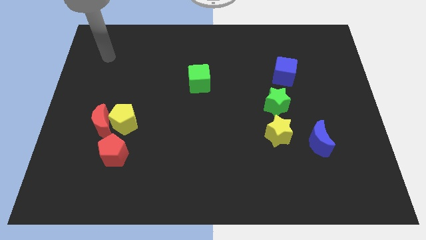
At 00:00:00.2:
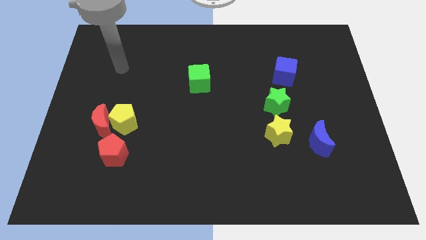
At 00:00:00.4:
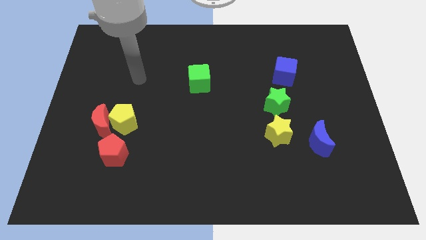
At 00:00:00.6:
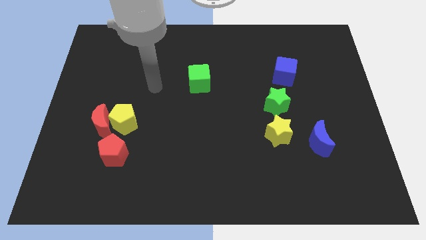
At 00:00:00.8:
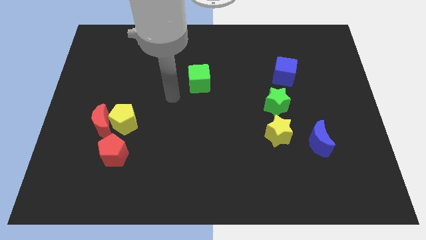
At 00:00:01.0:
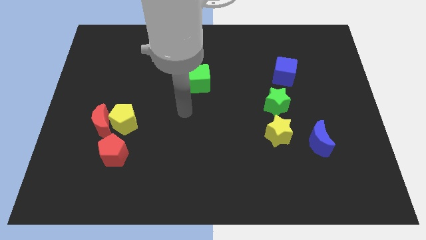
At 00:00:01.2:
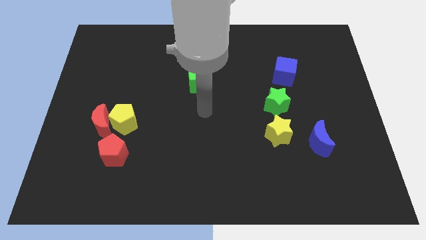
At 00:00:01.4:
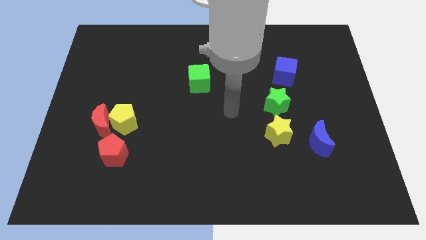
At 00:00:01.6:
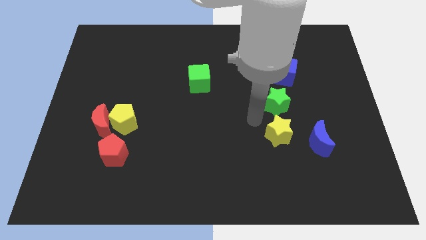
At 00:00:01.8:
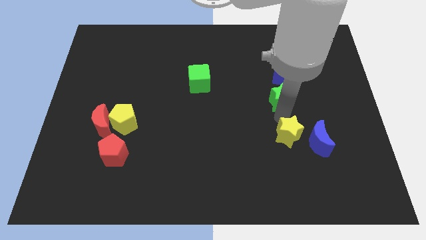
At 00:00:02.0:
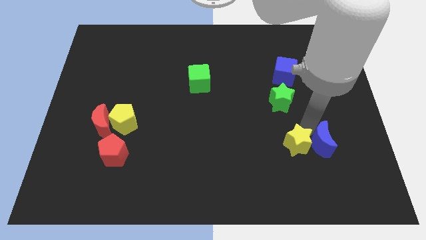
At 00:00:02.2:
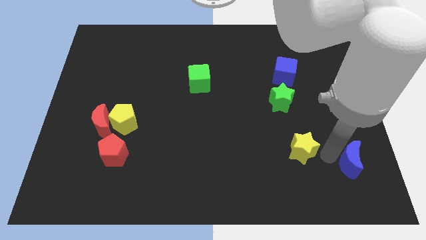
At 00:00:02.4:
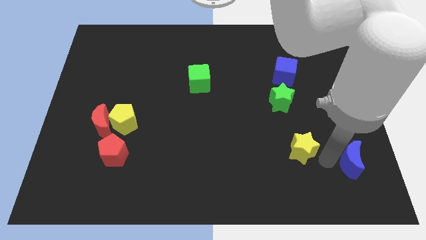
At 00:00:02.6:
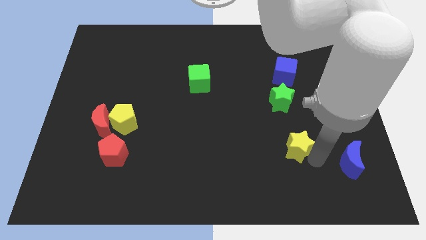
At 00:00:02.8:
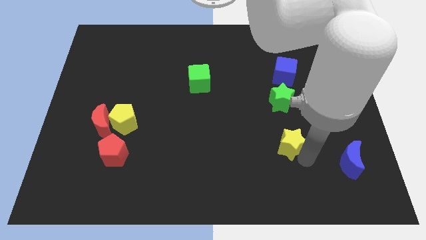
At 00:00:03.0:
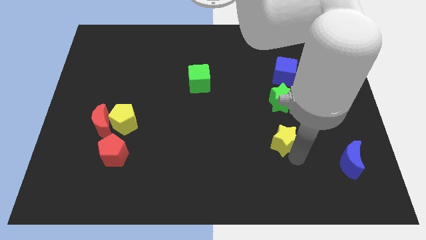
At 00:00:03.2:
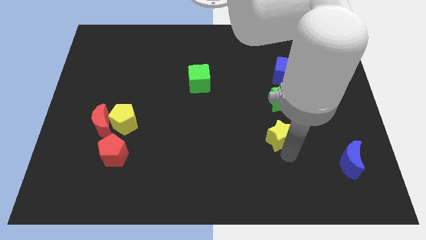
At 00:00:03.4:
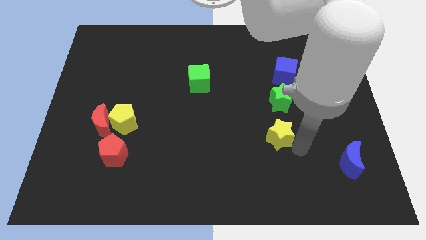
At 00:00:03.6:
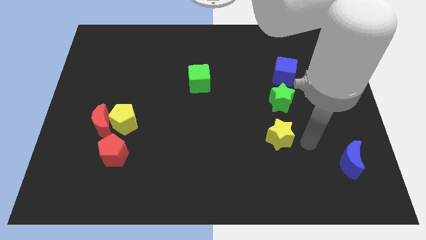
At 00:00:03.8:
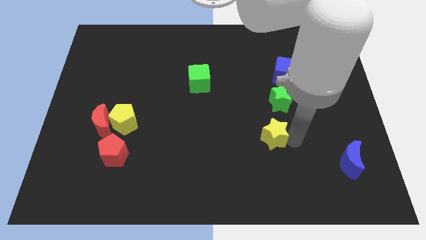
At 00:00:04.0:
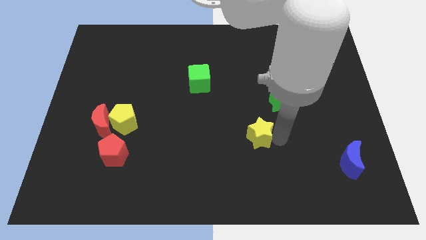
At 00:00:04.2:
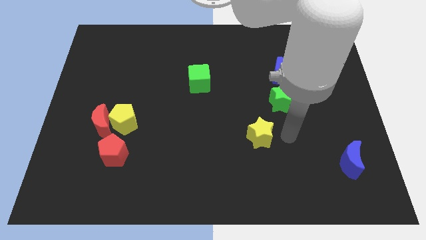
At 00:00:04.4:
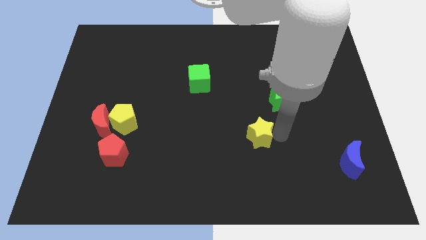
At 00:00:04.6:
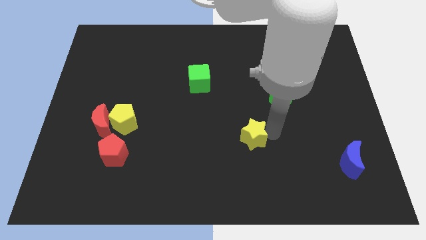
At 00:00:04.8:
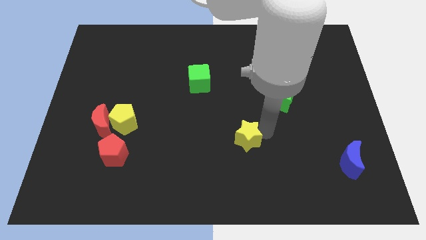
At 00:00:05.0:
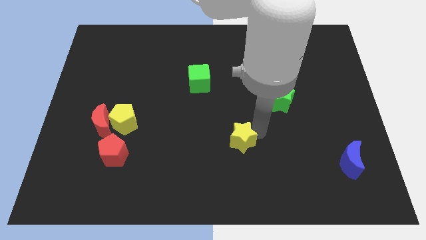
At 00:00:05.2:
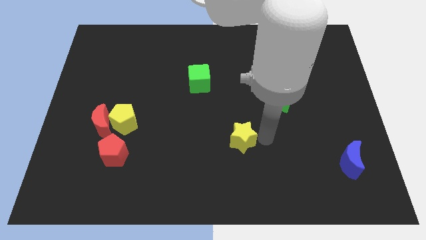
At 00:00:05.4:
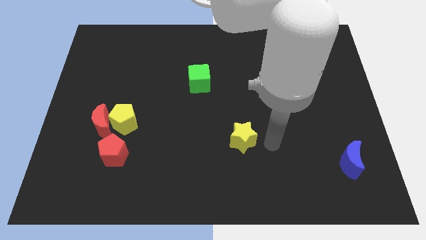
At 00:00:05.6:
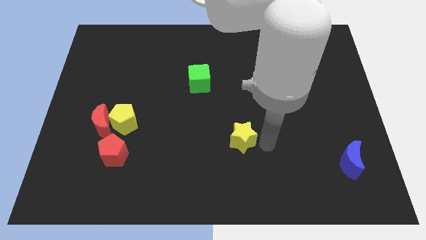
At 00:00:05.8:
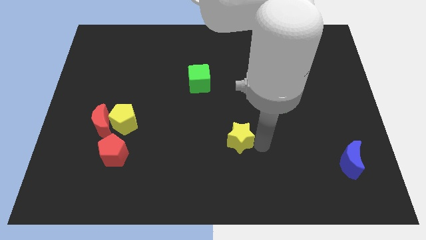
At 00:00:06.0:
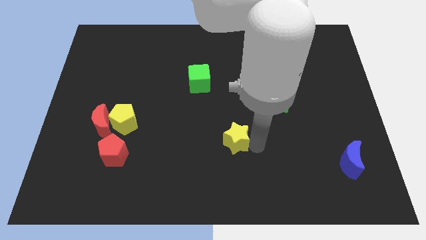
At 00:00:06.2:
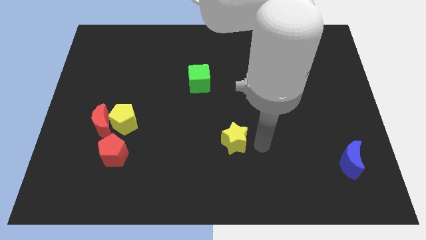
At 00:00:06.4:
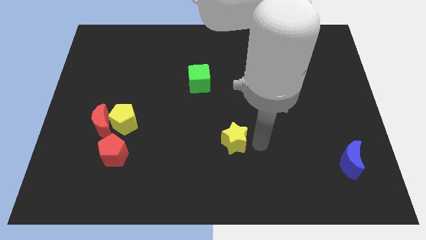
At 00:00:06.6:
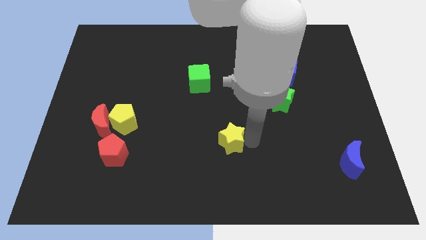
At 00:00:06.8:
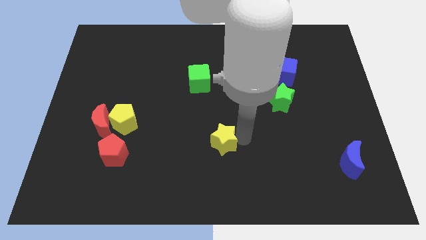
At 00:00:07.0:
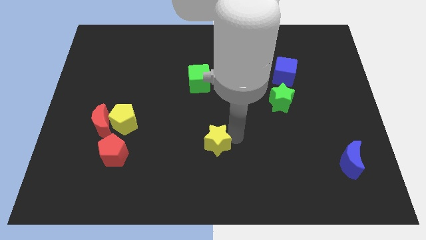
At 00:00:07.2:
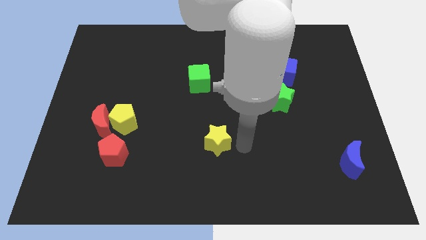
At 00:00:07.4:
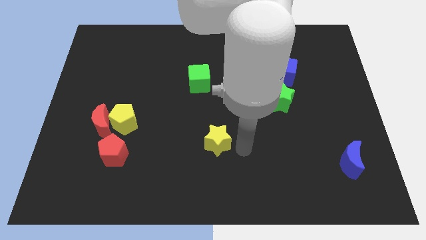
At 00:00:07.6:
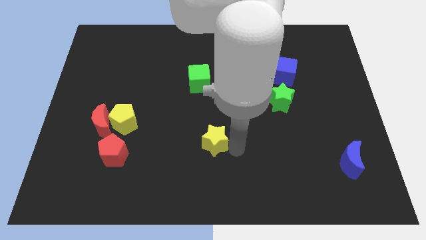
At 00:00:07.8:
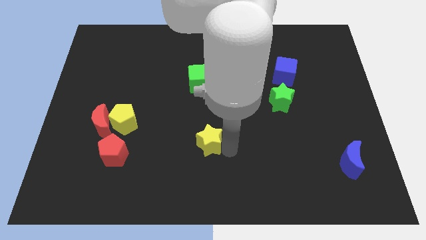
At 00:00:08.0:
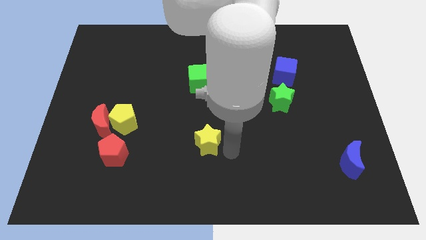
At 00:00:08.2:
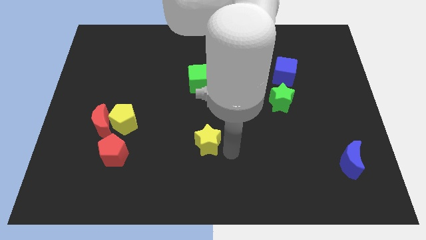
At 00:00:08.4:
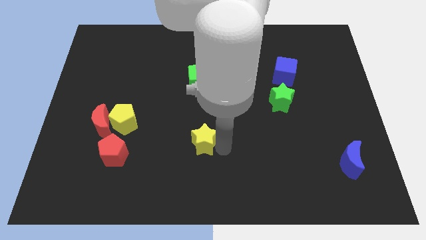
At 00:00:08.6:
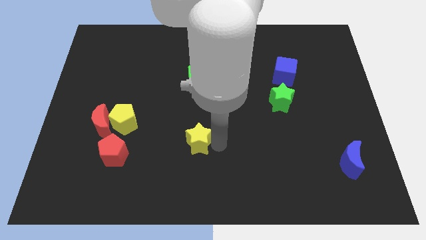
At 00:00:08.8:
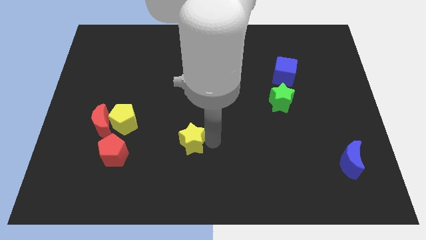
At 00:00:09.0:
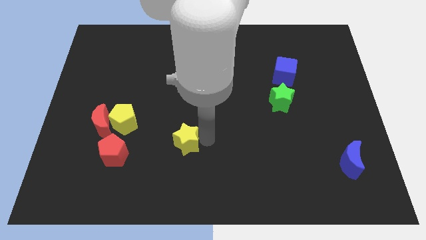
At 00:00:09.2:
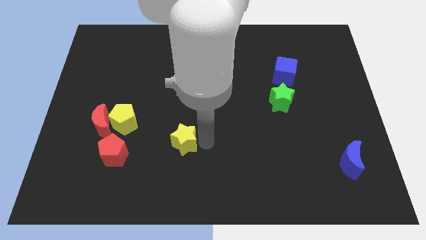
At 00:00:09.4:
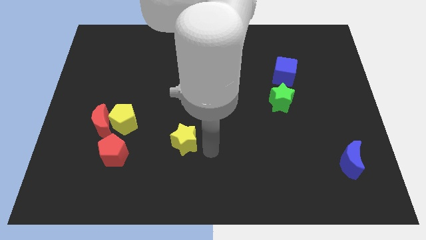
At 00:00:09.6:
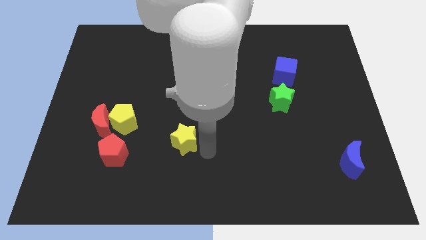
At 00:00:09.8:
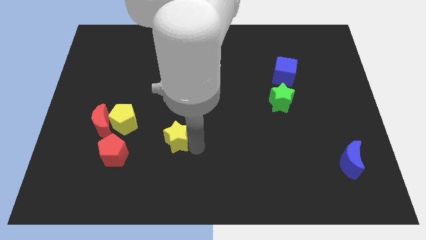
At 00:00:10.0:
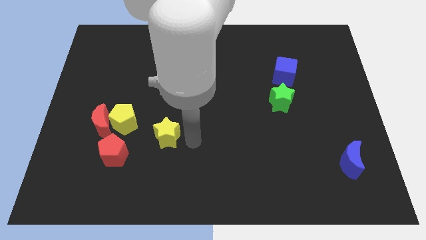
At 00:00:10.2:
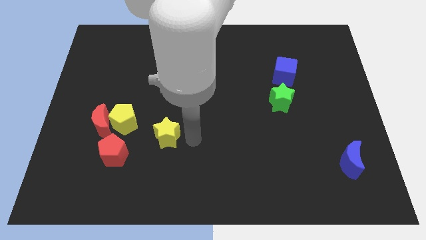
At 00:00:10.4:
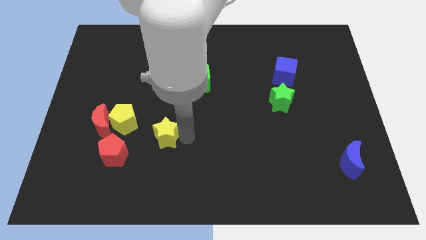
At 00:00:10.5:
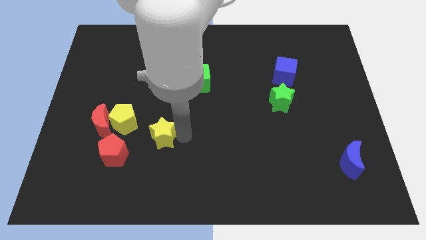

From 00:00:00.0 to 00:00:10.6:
put the yellow star to the top right of the red pentagon

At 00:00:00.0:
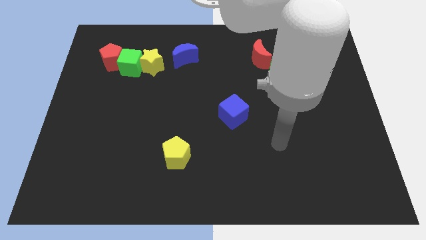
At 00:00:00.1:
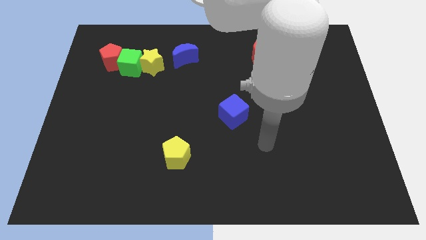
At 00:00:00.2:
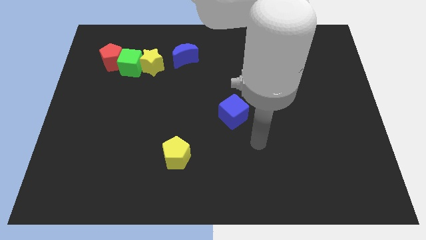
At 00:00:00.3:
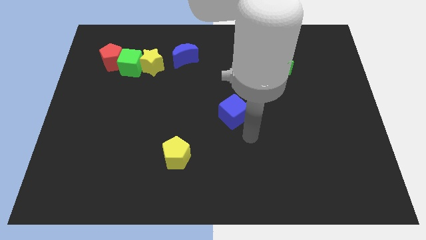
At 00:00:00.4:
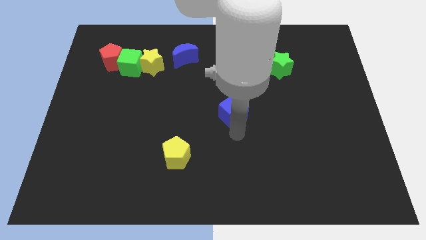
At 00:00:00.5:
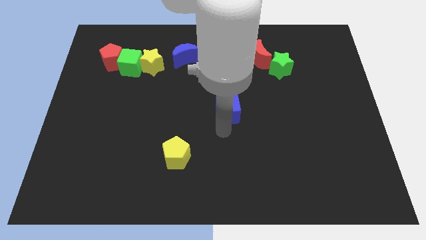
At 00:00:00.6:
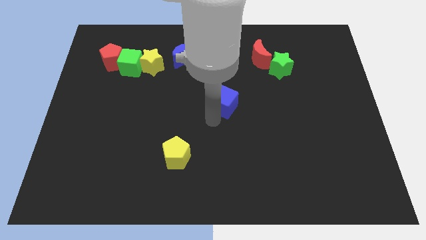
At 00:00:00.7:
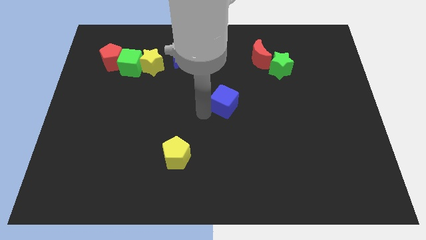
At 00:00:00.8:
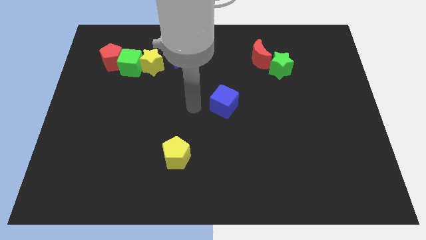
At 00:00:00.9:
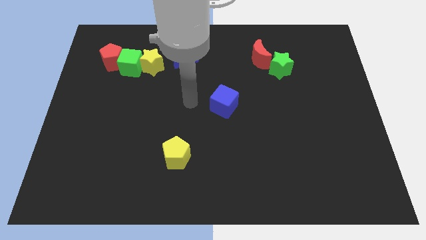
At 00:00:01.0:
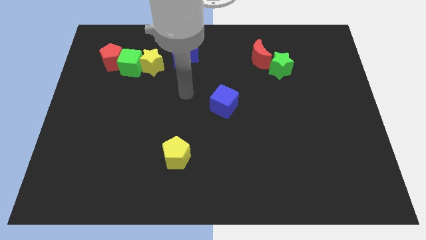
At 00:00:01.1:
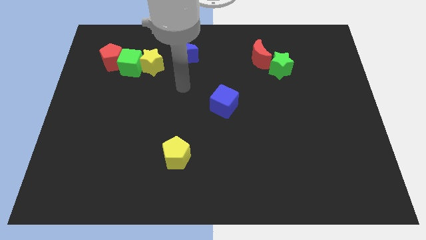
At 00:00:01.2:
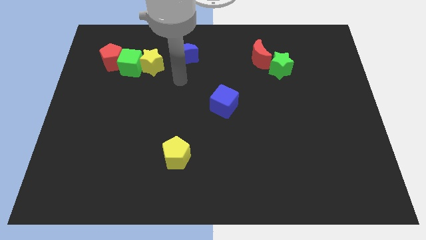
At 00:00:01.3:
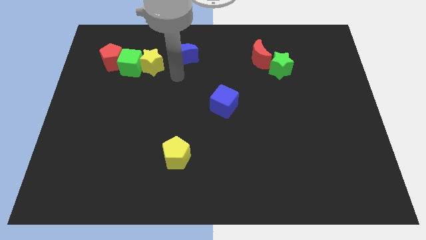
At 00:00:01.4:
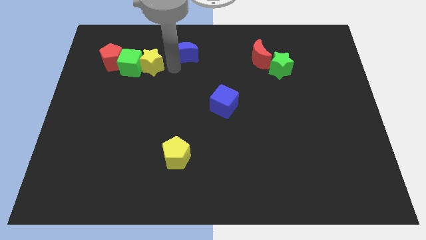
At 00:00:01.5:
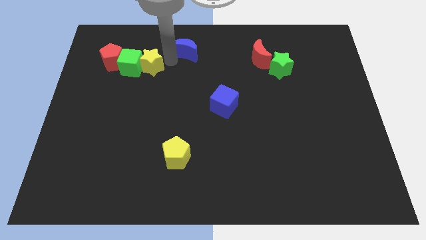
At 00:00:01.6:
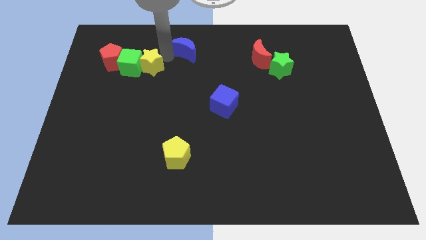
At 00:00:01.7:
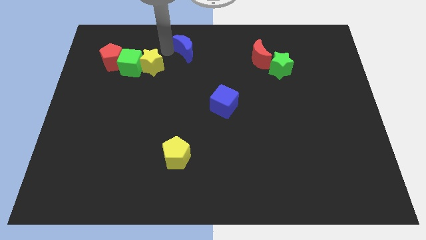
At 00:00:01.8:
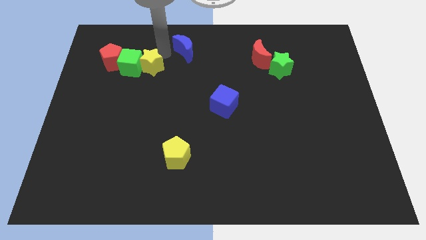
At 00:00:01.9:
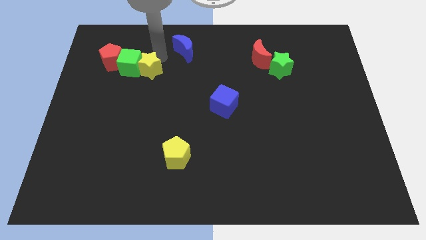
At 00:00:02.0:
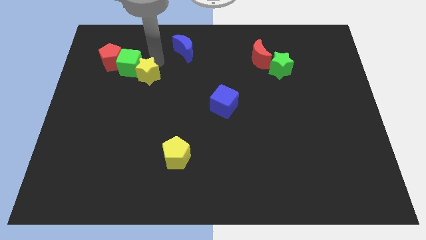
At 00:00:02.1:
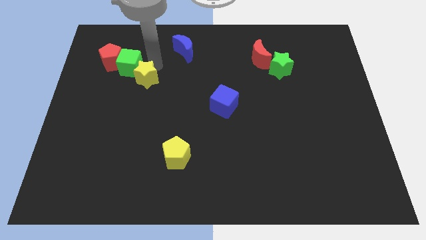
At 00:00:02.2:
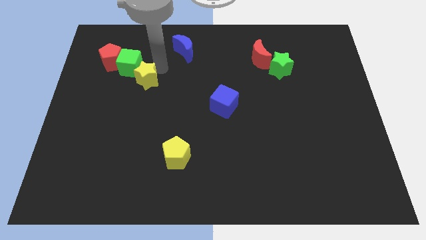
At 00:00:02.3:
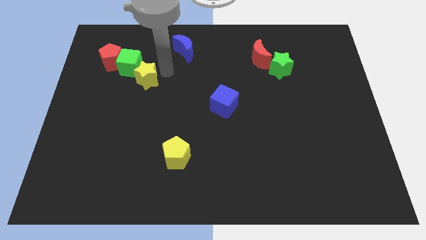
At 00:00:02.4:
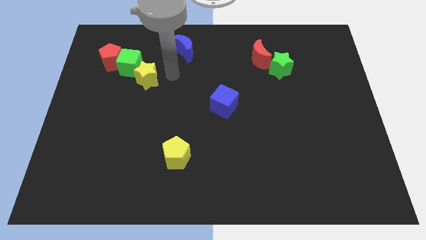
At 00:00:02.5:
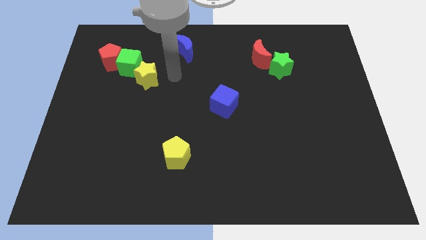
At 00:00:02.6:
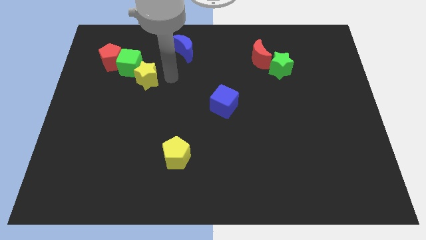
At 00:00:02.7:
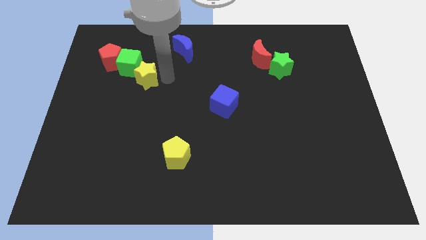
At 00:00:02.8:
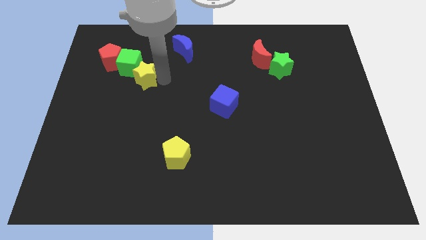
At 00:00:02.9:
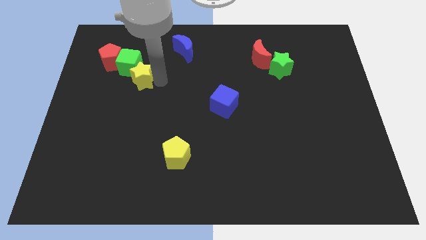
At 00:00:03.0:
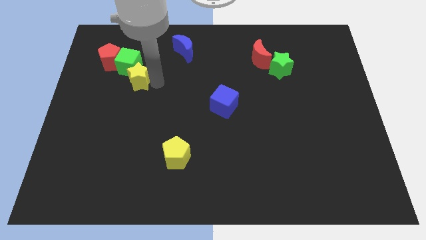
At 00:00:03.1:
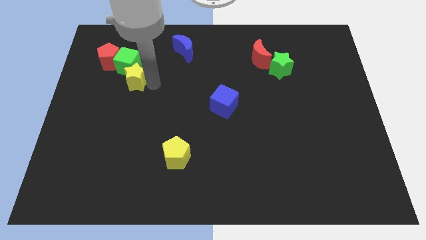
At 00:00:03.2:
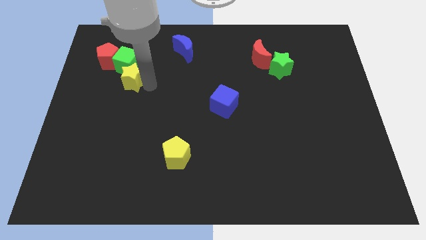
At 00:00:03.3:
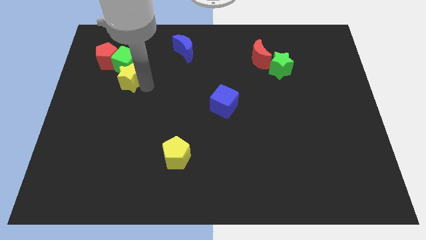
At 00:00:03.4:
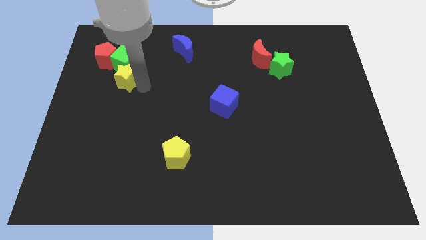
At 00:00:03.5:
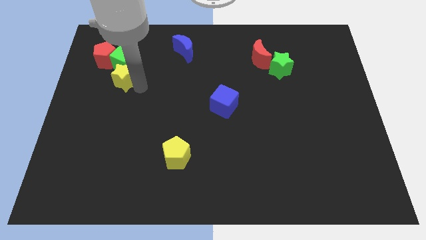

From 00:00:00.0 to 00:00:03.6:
put the yellow star diagonally down and to the left of the green cube
